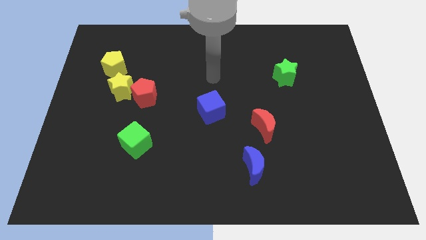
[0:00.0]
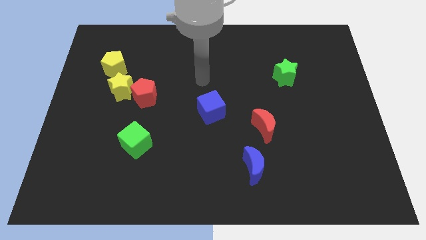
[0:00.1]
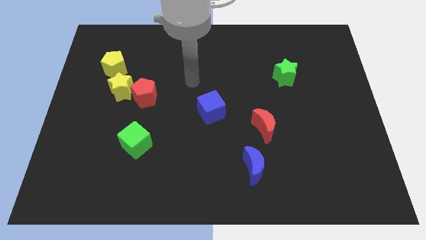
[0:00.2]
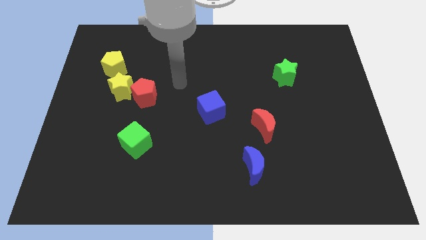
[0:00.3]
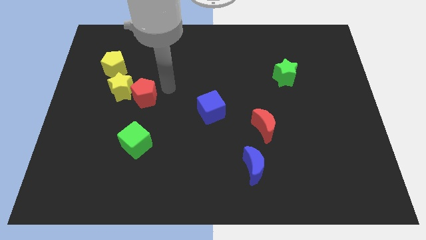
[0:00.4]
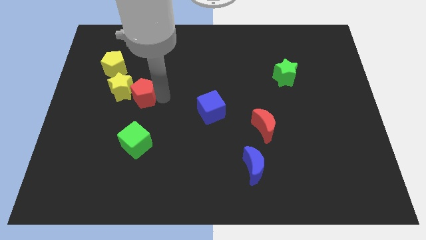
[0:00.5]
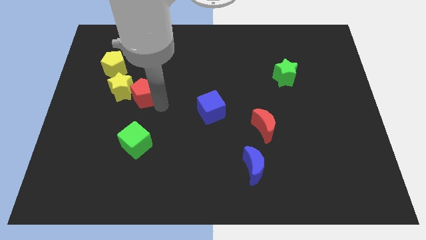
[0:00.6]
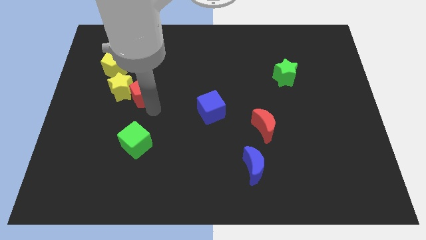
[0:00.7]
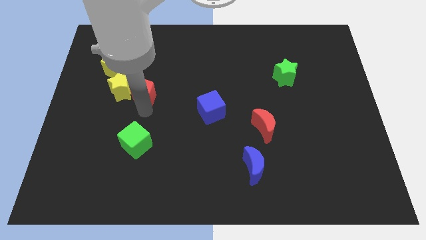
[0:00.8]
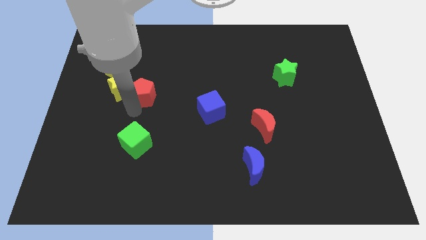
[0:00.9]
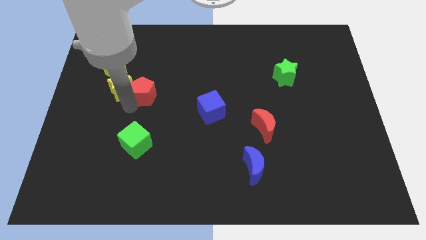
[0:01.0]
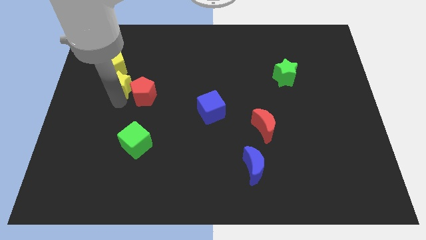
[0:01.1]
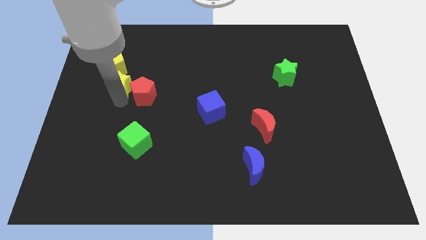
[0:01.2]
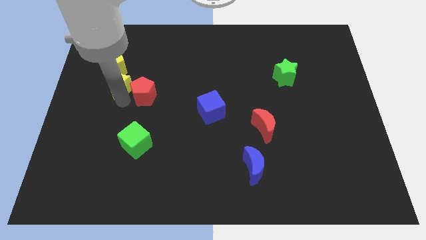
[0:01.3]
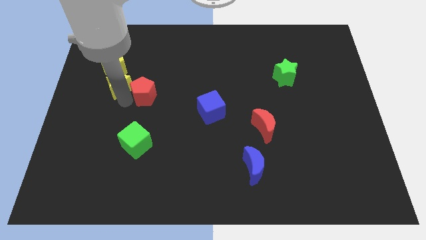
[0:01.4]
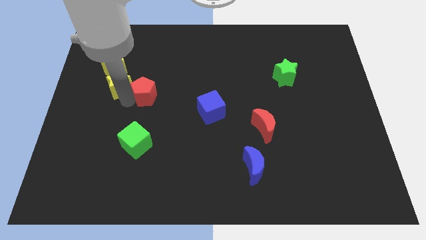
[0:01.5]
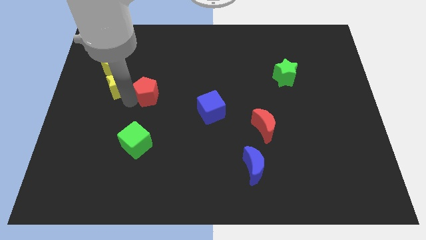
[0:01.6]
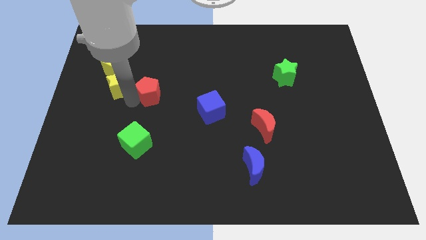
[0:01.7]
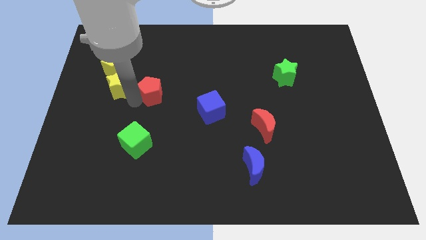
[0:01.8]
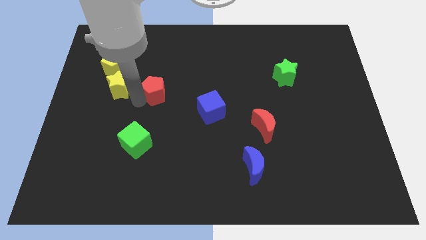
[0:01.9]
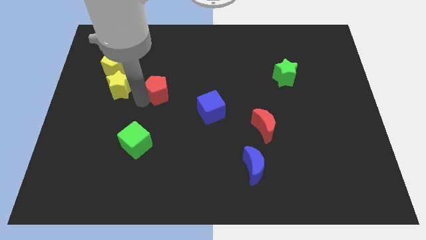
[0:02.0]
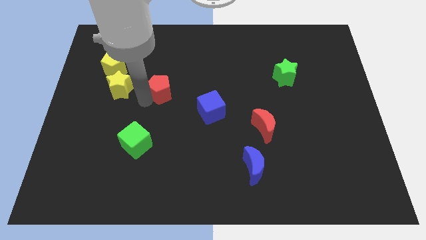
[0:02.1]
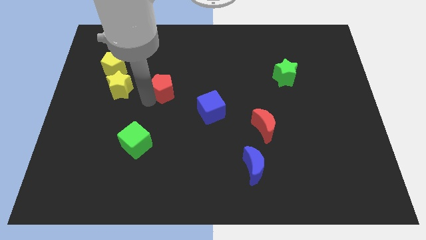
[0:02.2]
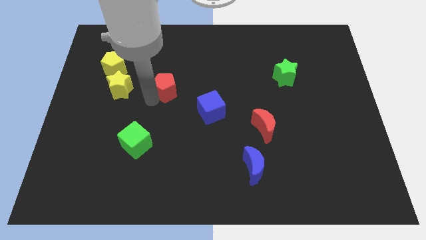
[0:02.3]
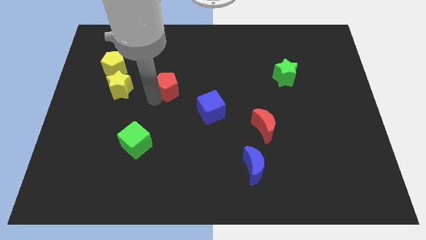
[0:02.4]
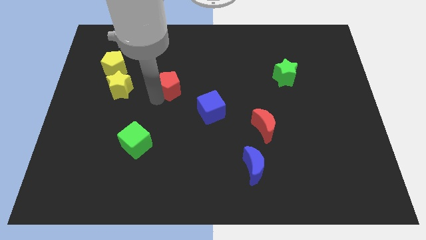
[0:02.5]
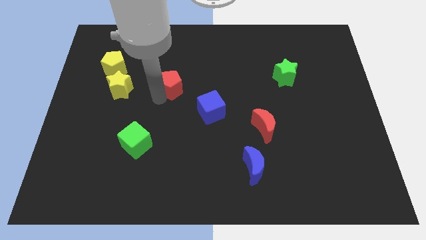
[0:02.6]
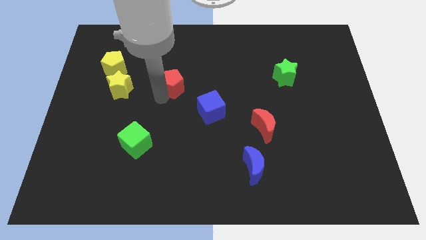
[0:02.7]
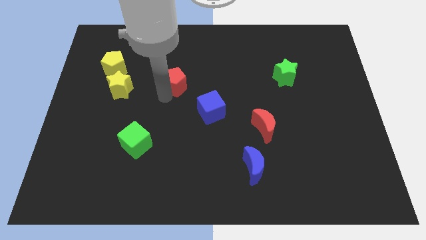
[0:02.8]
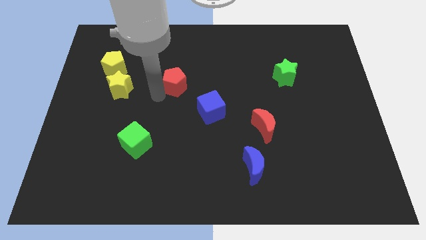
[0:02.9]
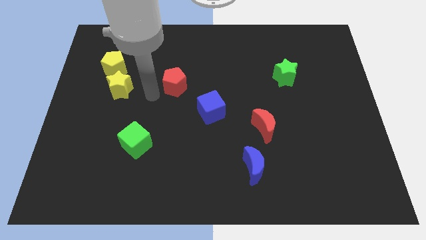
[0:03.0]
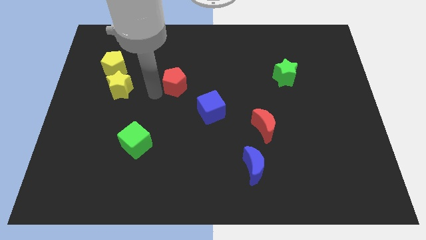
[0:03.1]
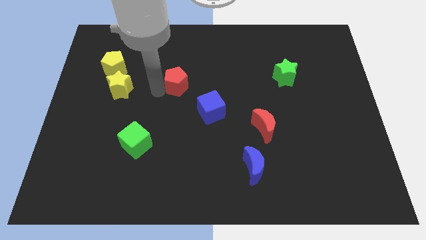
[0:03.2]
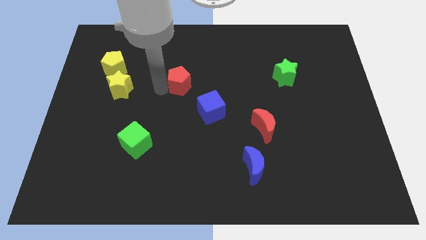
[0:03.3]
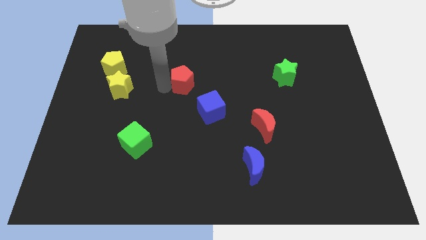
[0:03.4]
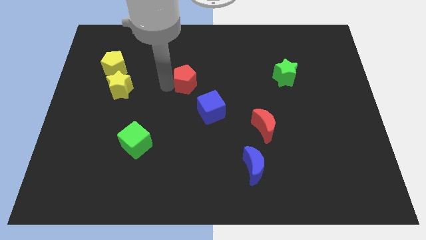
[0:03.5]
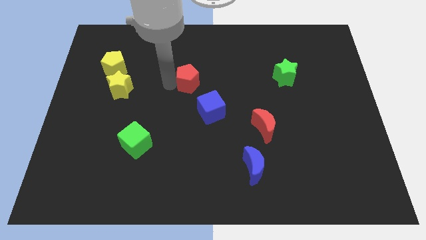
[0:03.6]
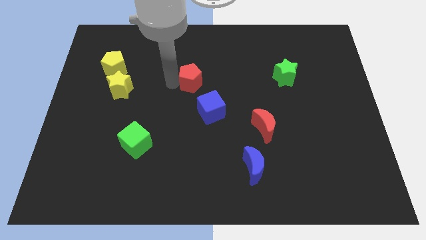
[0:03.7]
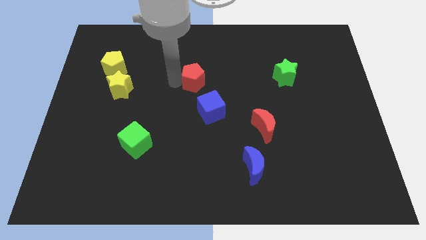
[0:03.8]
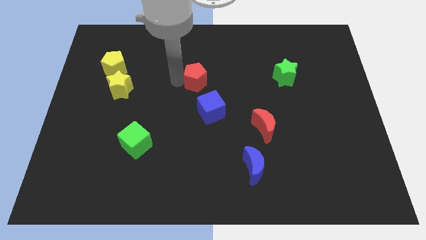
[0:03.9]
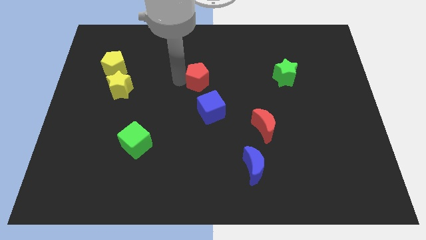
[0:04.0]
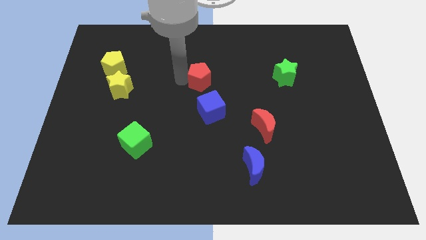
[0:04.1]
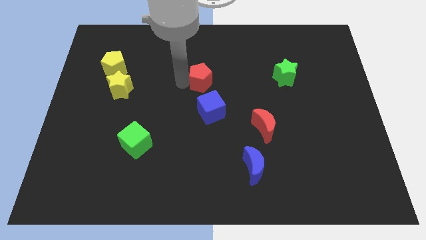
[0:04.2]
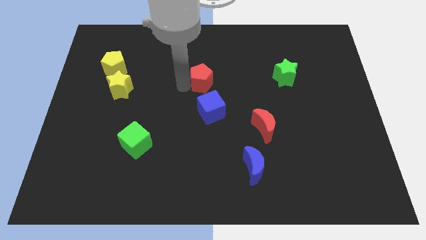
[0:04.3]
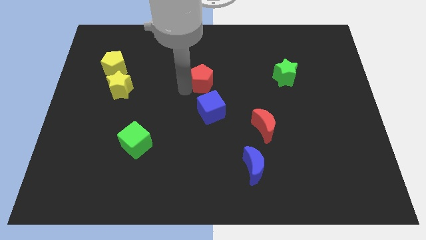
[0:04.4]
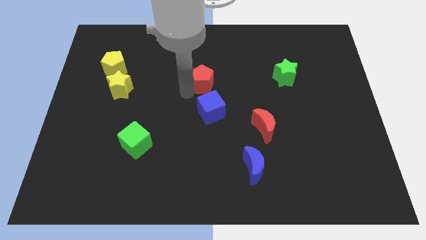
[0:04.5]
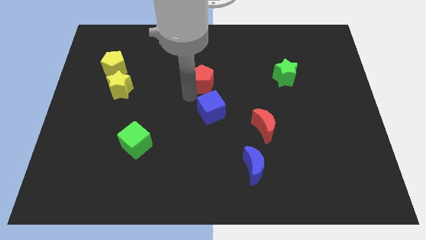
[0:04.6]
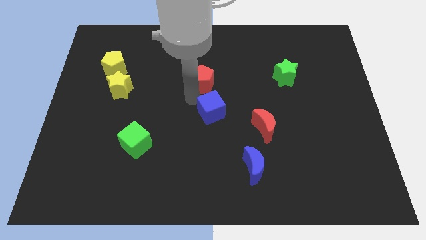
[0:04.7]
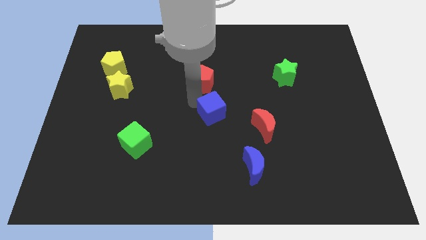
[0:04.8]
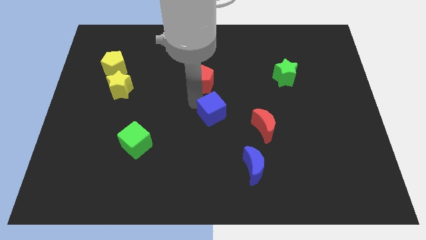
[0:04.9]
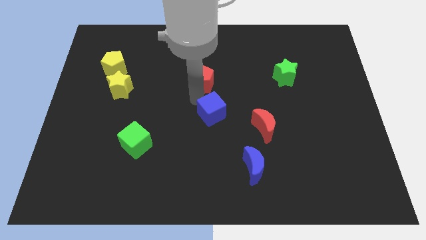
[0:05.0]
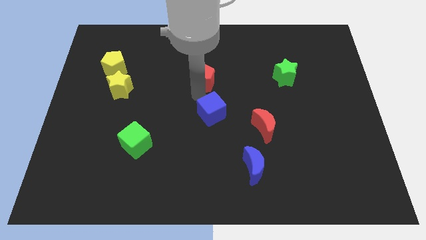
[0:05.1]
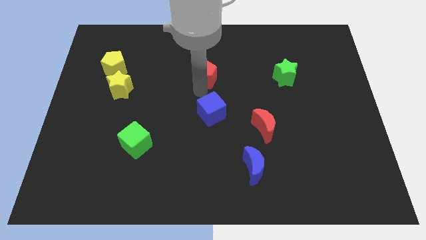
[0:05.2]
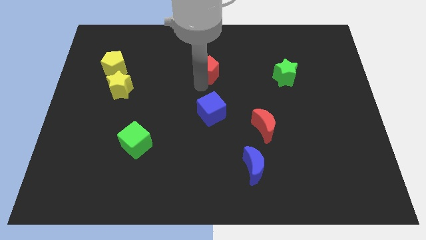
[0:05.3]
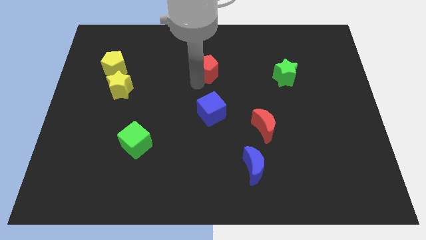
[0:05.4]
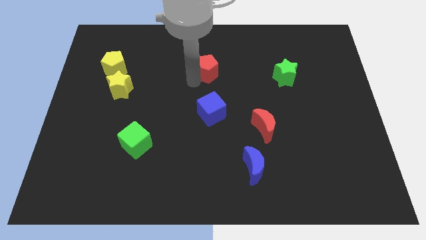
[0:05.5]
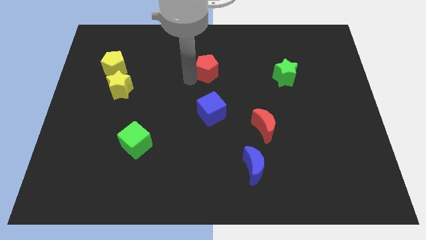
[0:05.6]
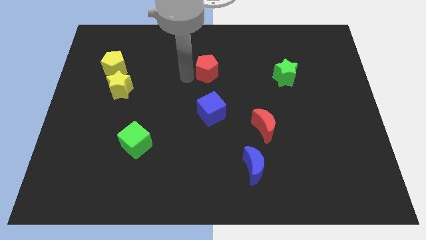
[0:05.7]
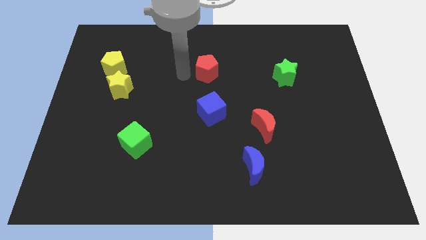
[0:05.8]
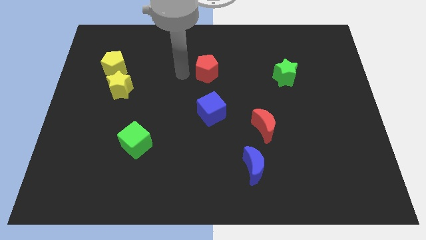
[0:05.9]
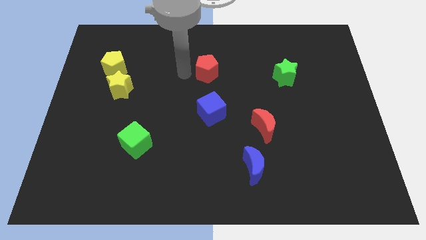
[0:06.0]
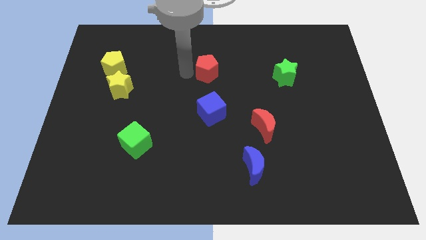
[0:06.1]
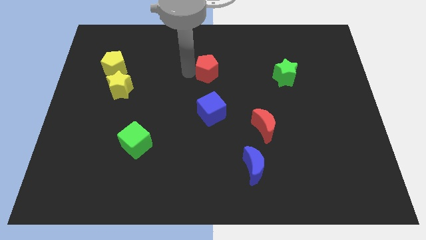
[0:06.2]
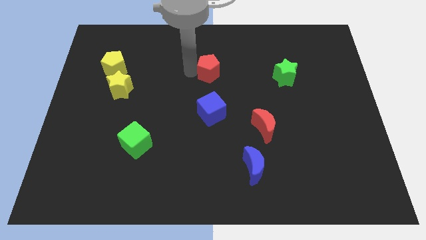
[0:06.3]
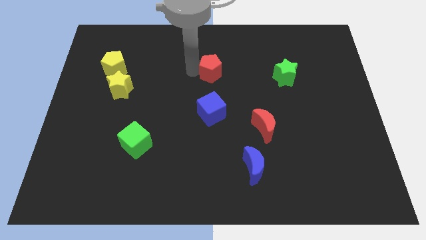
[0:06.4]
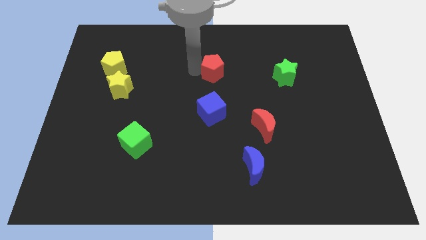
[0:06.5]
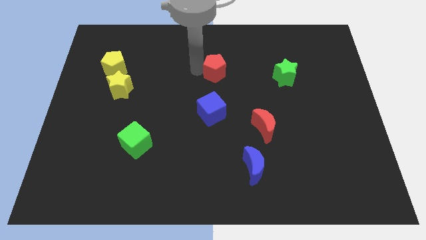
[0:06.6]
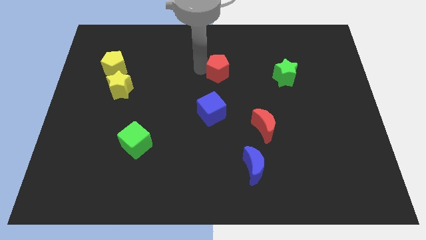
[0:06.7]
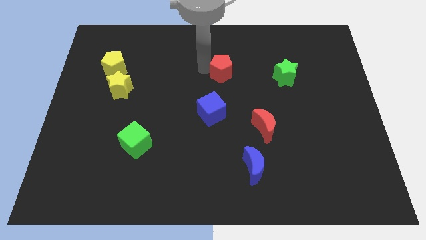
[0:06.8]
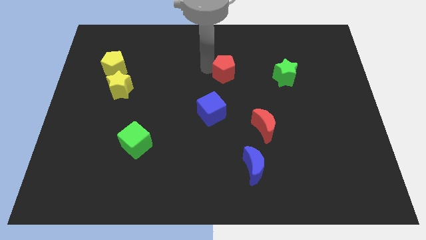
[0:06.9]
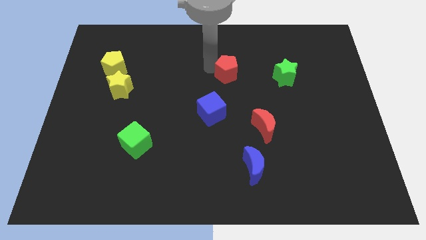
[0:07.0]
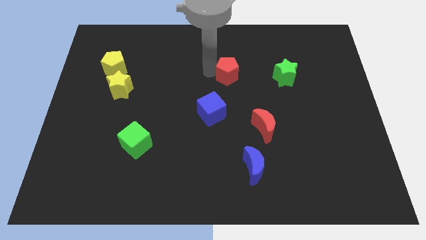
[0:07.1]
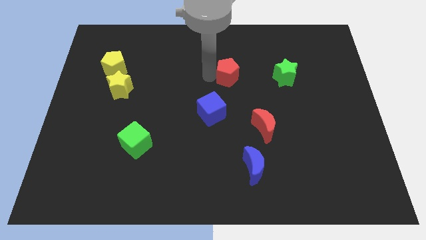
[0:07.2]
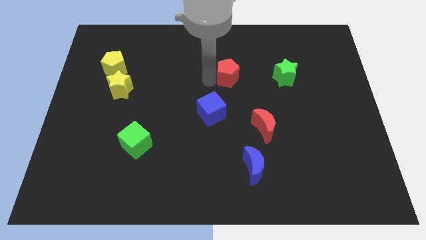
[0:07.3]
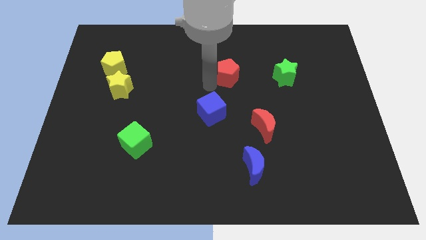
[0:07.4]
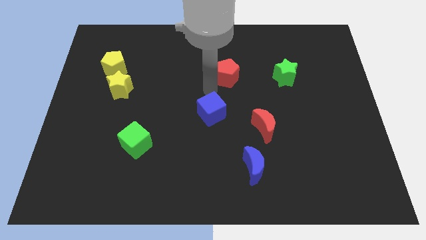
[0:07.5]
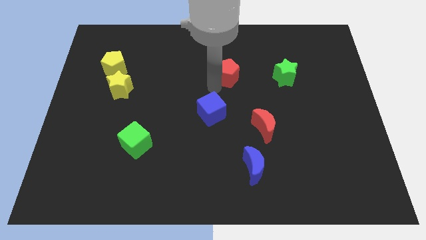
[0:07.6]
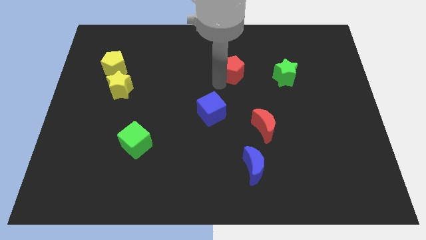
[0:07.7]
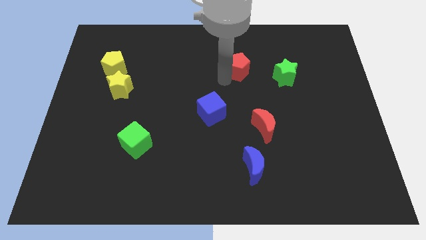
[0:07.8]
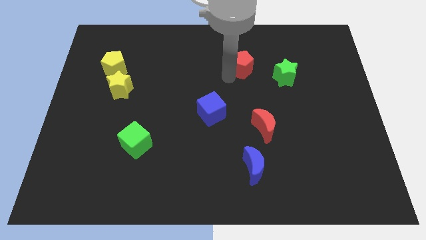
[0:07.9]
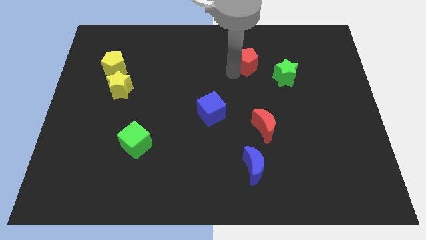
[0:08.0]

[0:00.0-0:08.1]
push the red pentagon to the top left side of the green star
